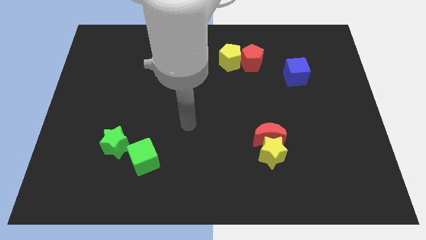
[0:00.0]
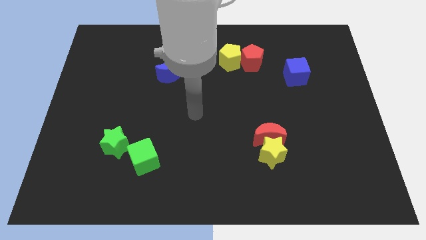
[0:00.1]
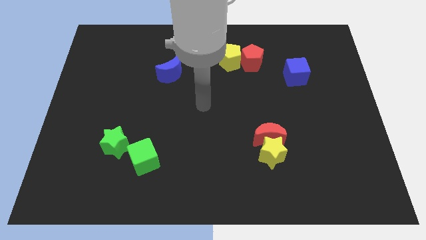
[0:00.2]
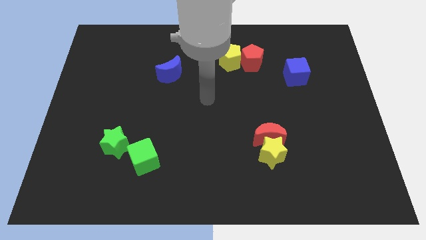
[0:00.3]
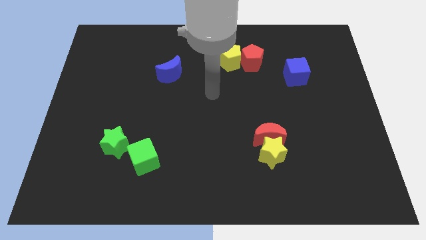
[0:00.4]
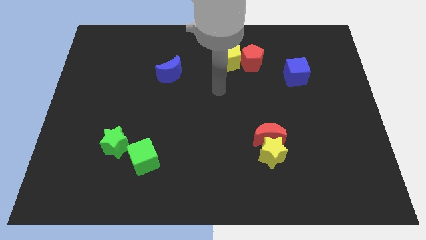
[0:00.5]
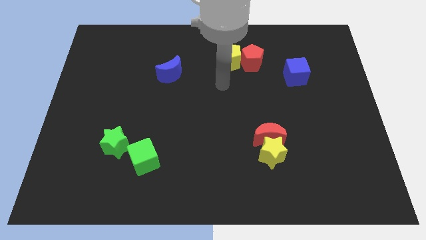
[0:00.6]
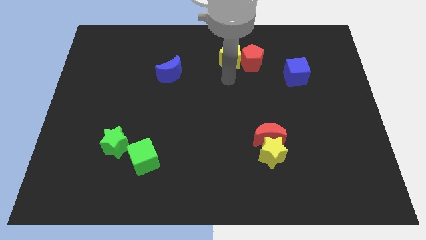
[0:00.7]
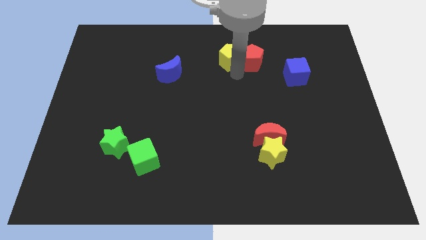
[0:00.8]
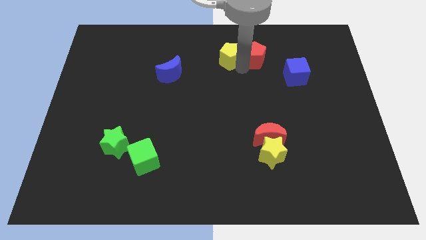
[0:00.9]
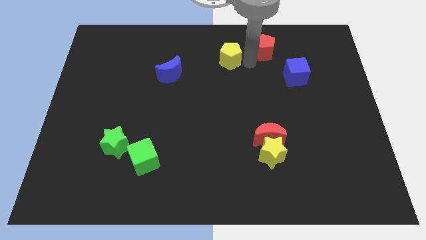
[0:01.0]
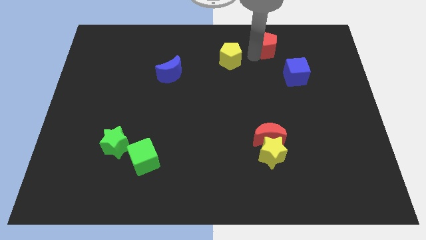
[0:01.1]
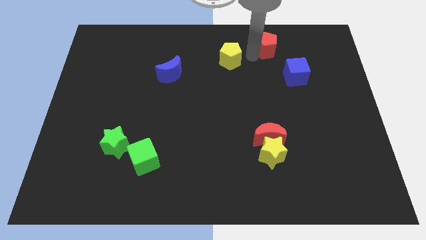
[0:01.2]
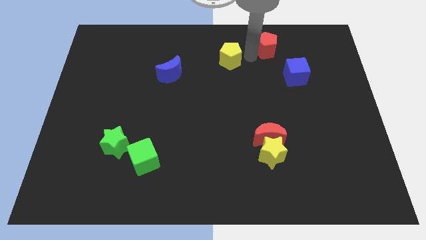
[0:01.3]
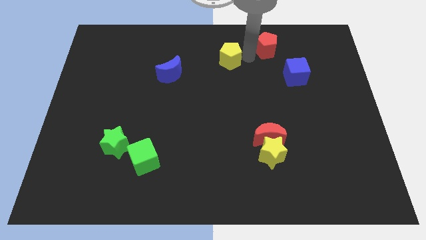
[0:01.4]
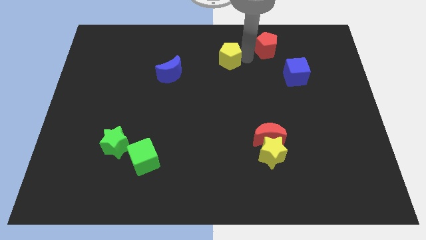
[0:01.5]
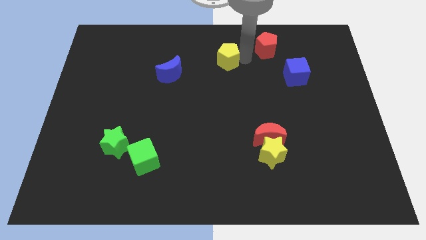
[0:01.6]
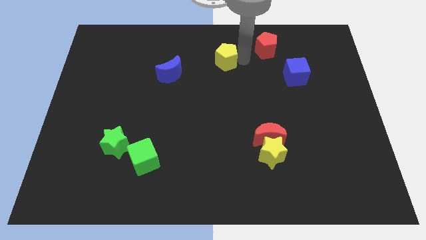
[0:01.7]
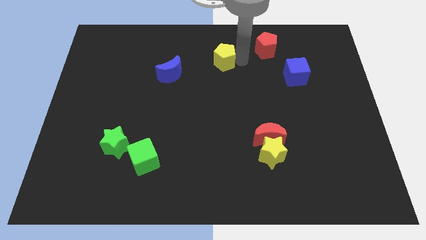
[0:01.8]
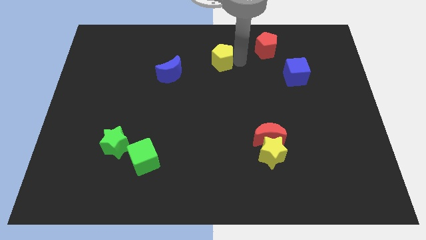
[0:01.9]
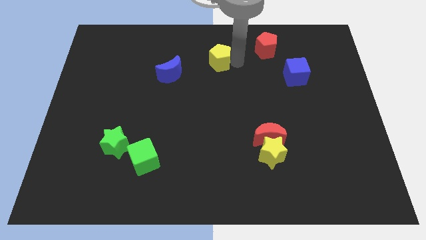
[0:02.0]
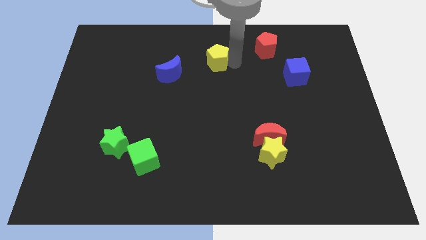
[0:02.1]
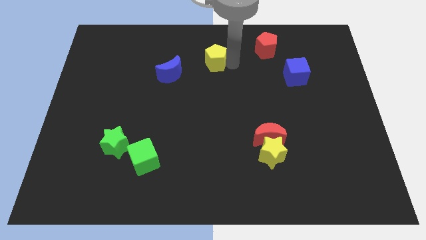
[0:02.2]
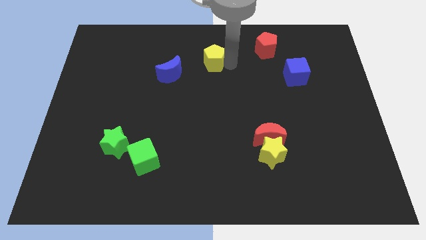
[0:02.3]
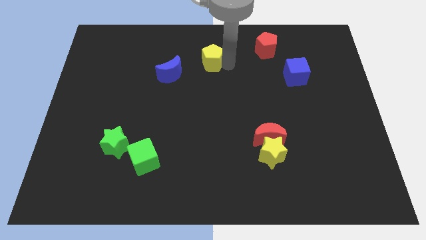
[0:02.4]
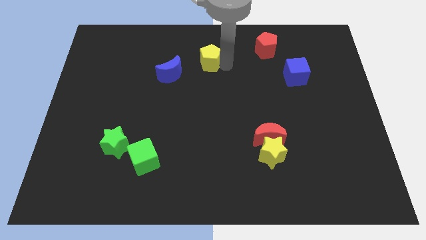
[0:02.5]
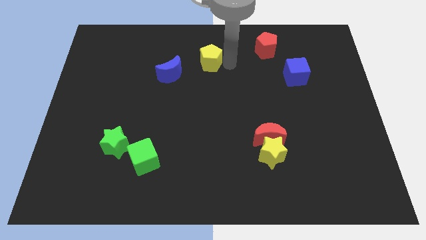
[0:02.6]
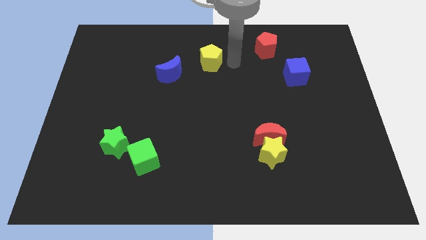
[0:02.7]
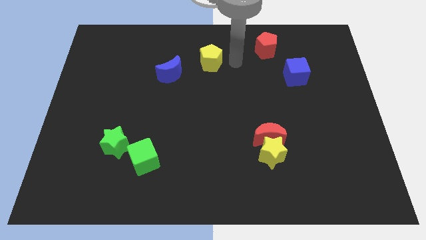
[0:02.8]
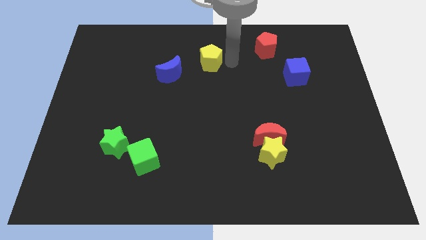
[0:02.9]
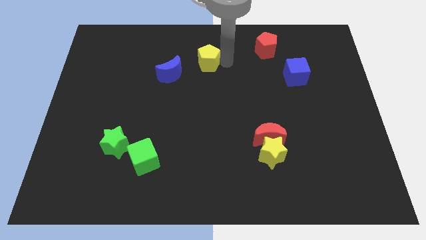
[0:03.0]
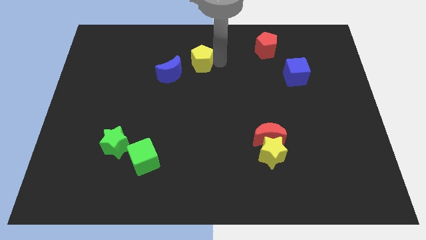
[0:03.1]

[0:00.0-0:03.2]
push the yellow pentagon to the left somewhat

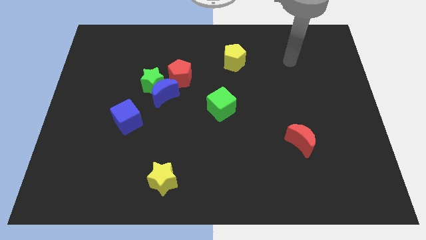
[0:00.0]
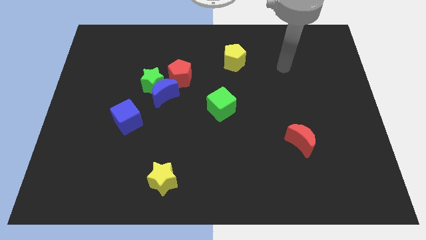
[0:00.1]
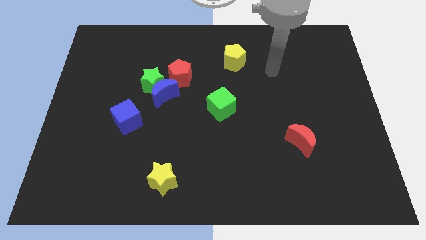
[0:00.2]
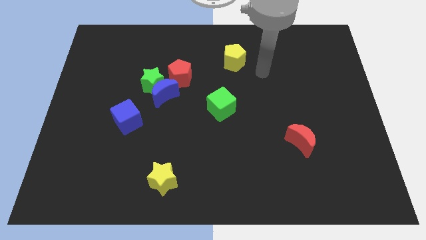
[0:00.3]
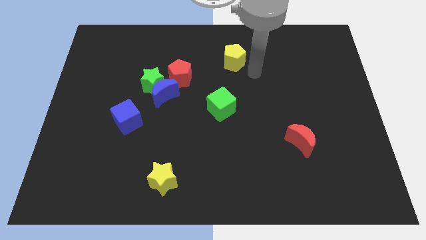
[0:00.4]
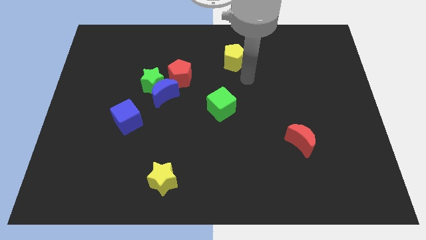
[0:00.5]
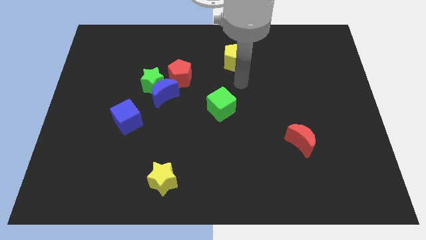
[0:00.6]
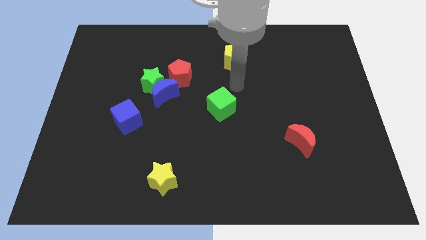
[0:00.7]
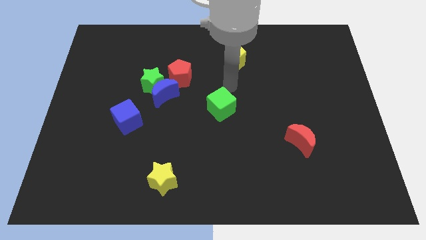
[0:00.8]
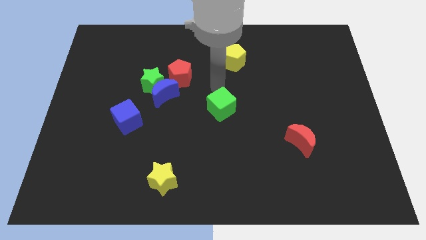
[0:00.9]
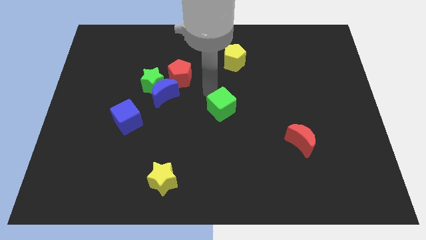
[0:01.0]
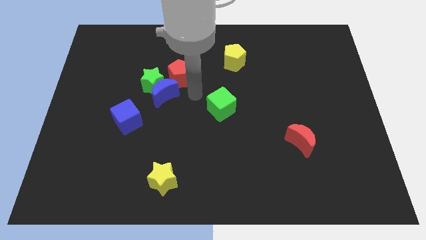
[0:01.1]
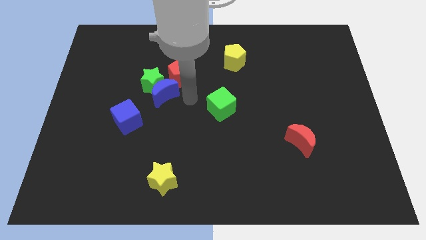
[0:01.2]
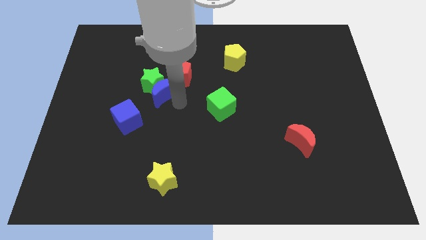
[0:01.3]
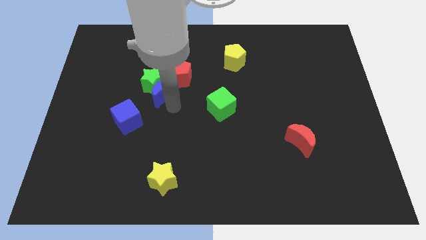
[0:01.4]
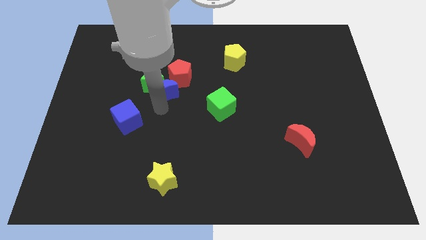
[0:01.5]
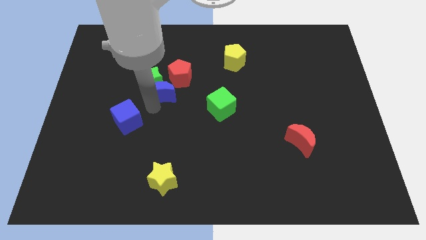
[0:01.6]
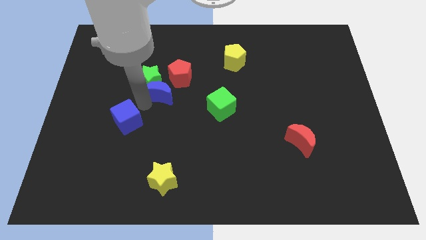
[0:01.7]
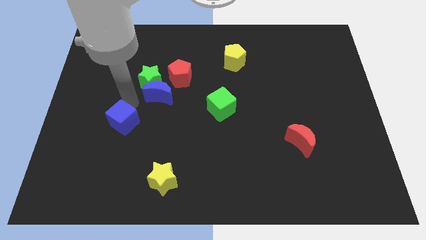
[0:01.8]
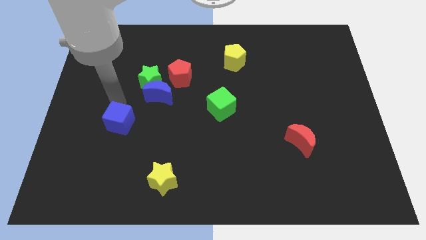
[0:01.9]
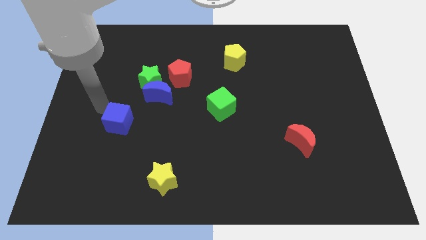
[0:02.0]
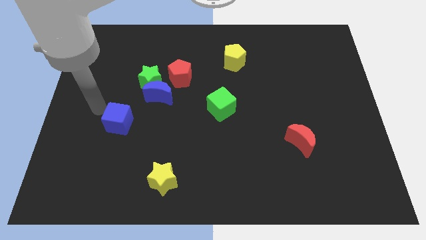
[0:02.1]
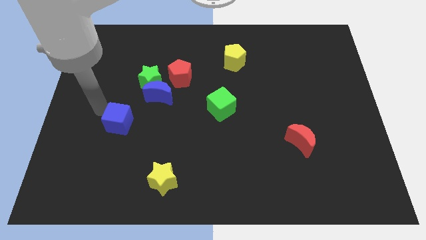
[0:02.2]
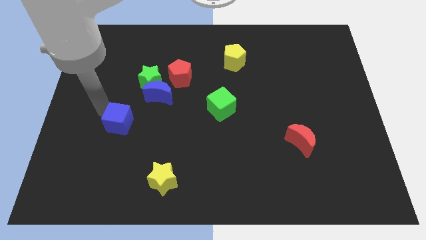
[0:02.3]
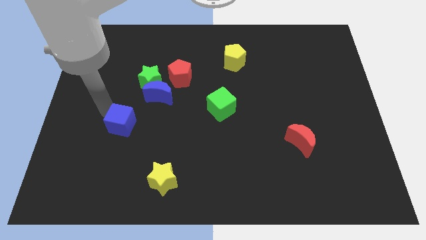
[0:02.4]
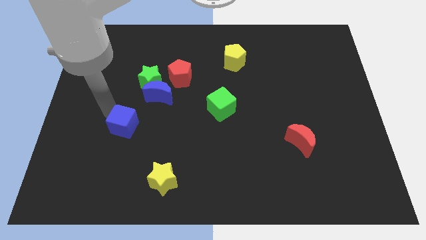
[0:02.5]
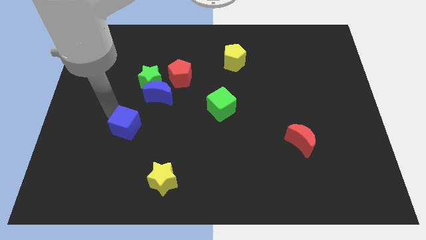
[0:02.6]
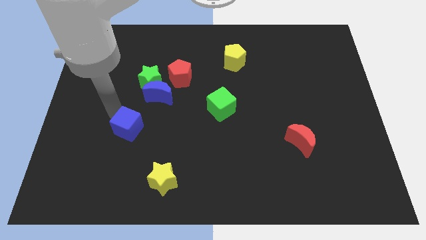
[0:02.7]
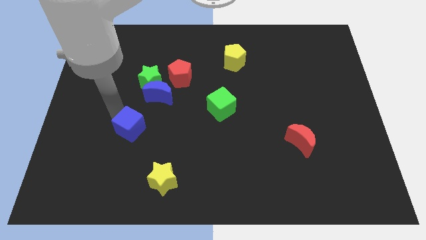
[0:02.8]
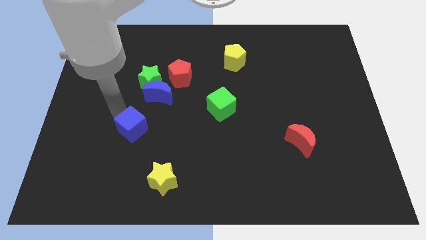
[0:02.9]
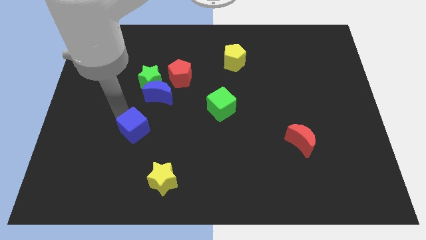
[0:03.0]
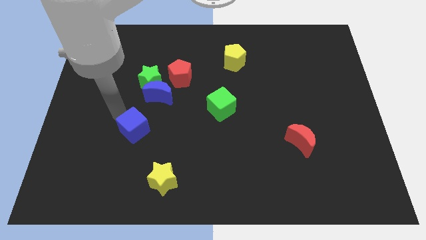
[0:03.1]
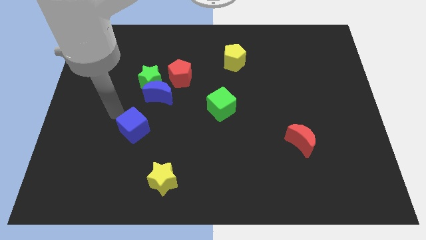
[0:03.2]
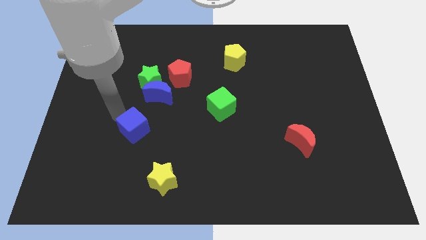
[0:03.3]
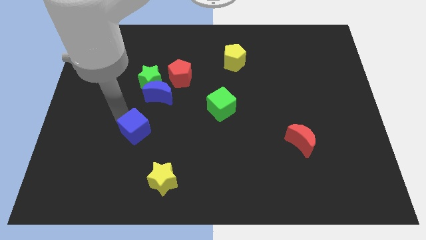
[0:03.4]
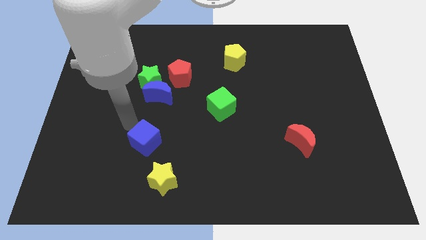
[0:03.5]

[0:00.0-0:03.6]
move the blue cube down and then right somewhat

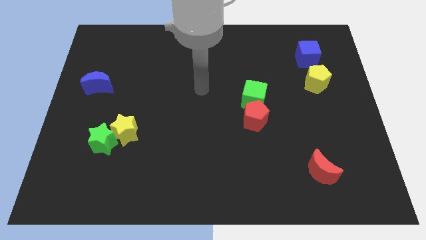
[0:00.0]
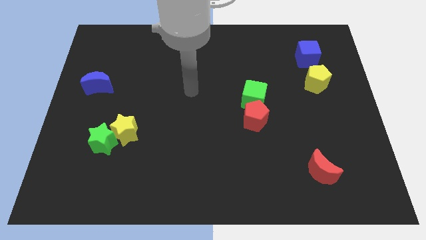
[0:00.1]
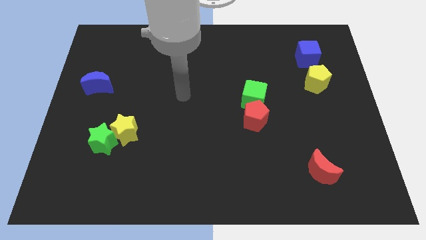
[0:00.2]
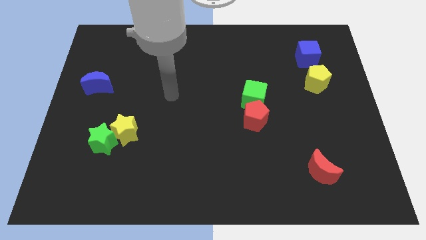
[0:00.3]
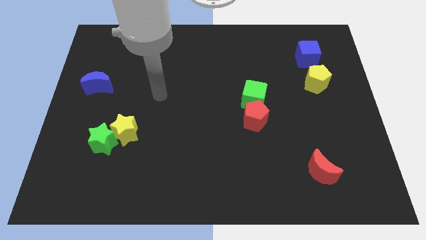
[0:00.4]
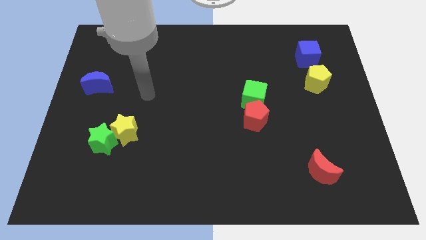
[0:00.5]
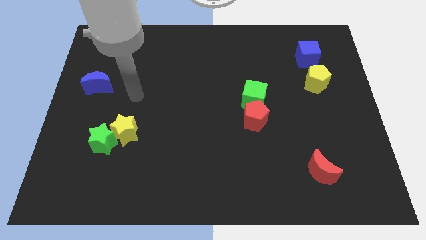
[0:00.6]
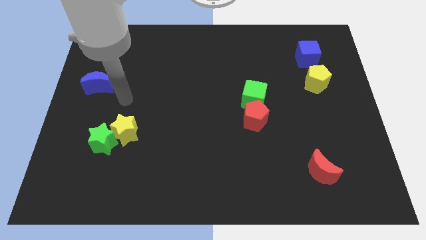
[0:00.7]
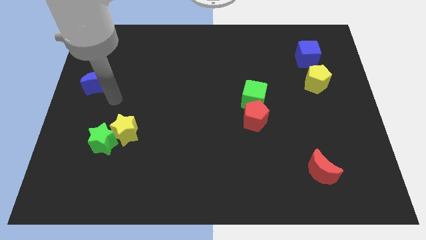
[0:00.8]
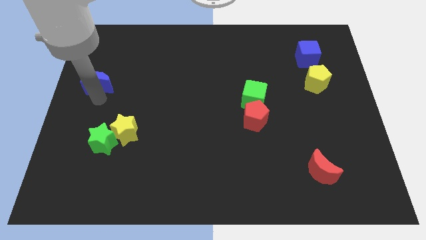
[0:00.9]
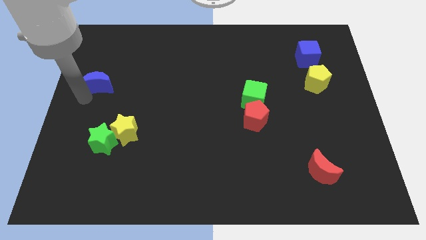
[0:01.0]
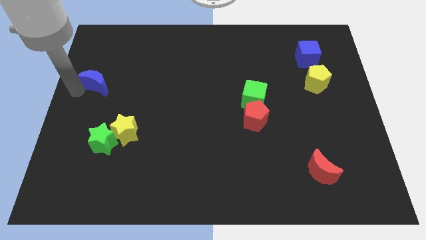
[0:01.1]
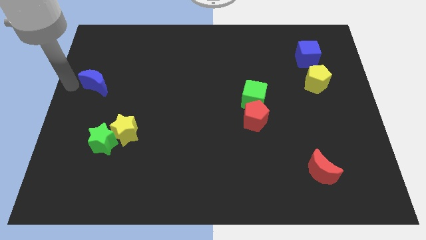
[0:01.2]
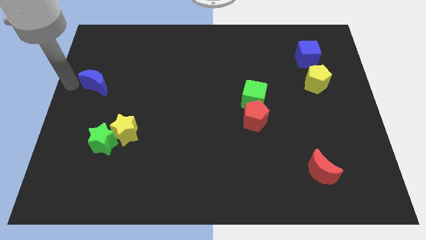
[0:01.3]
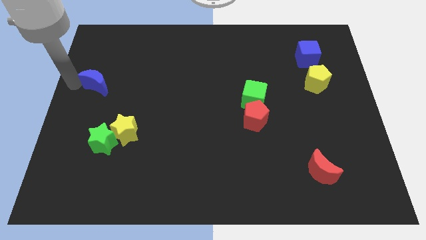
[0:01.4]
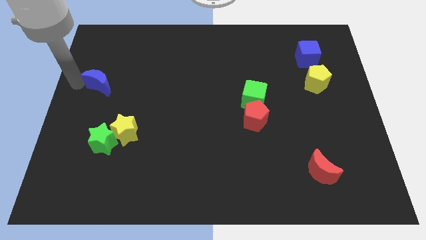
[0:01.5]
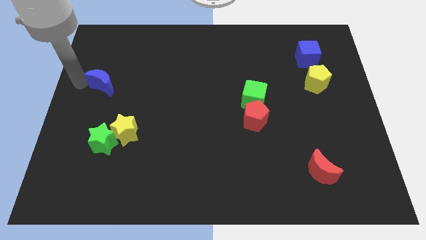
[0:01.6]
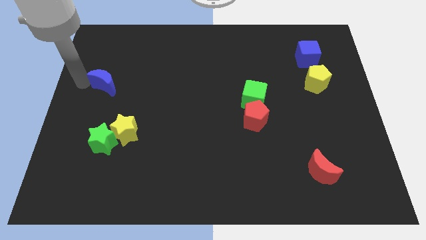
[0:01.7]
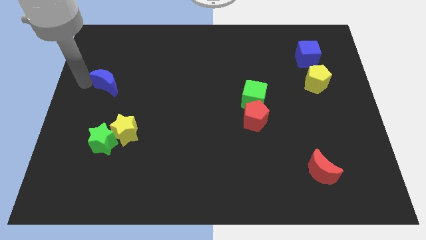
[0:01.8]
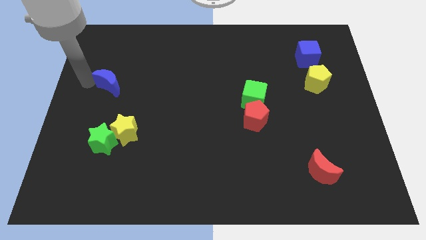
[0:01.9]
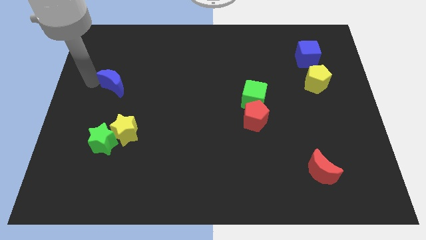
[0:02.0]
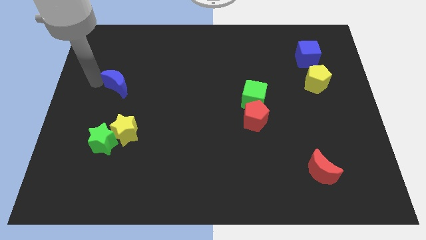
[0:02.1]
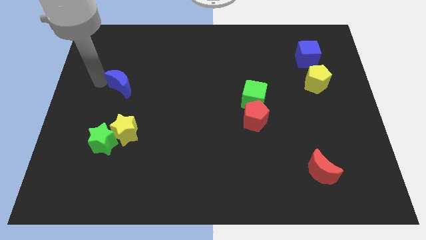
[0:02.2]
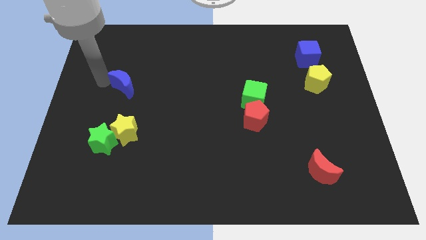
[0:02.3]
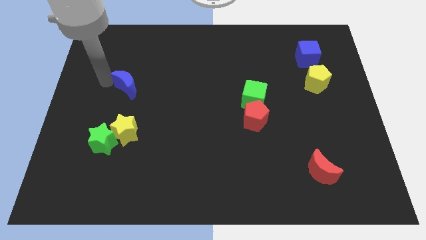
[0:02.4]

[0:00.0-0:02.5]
move the blue moon to the right somewhat
